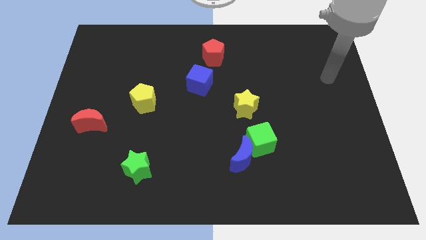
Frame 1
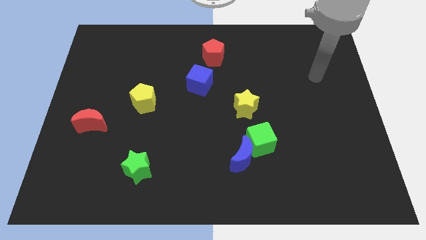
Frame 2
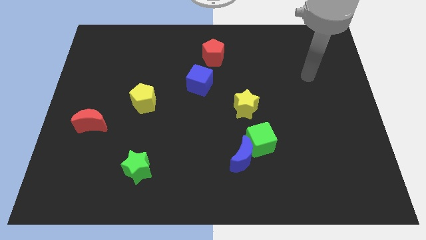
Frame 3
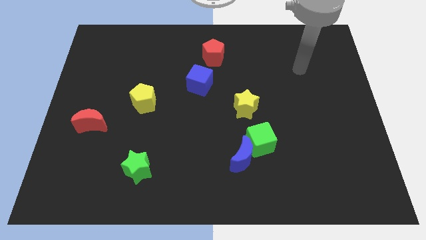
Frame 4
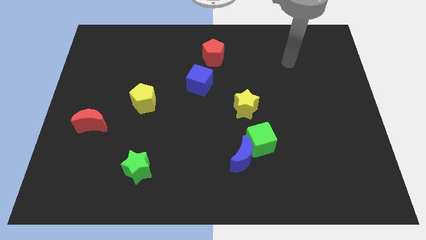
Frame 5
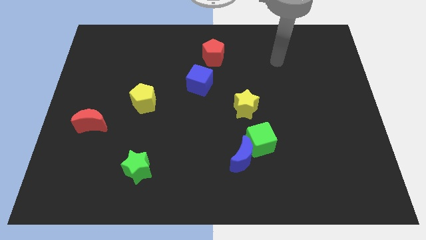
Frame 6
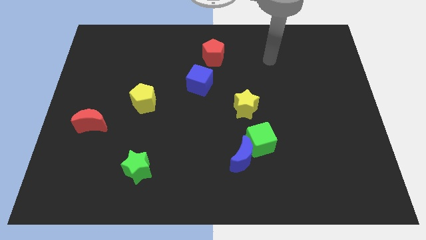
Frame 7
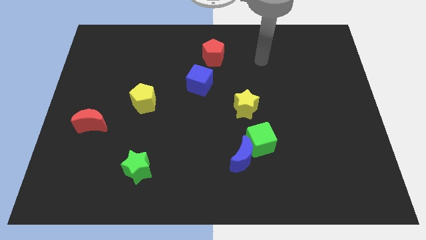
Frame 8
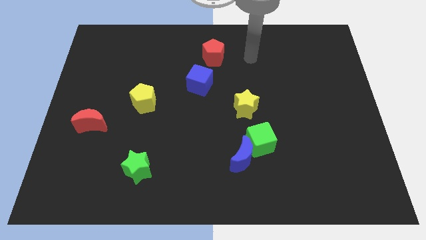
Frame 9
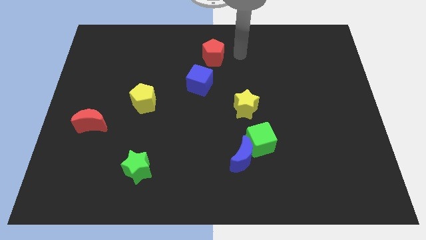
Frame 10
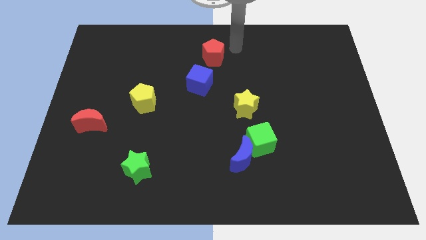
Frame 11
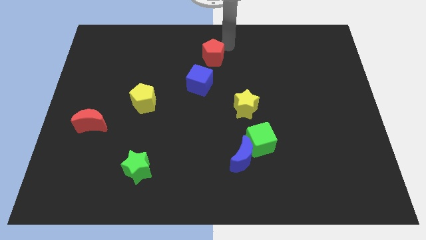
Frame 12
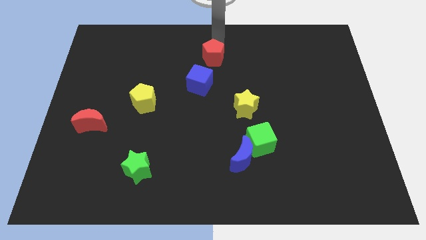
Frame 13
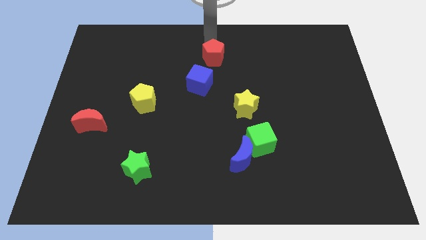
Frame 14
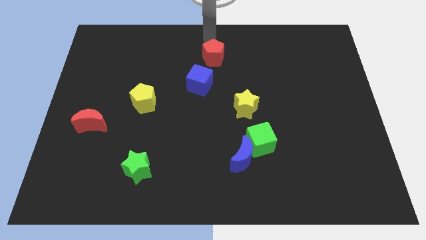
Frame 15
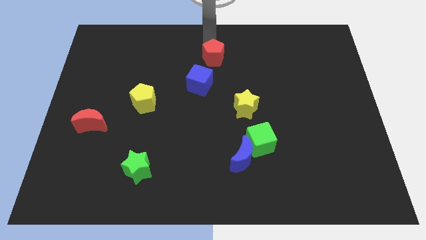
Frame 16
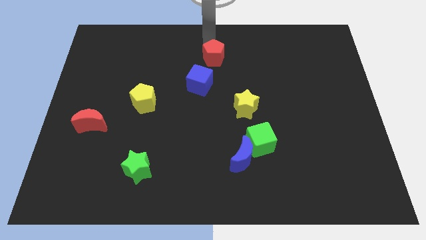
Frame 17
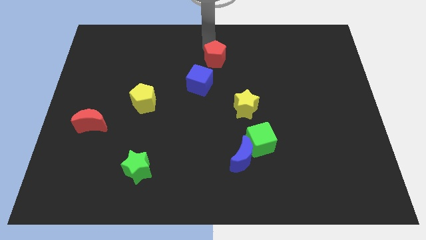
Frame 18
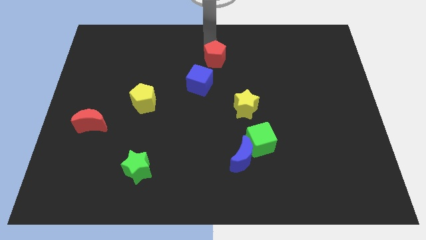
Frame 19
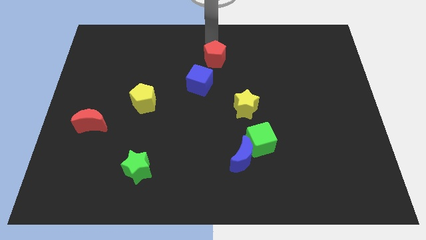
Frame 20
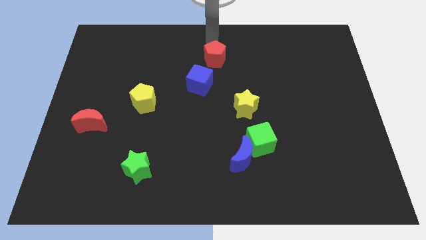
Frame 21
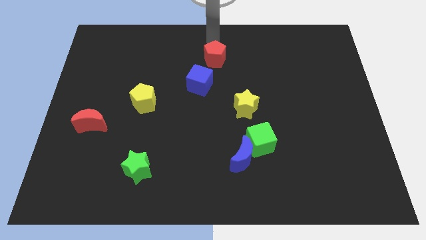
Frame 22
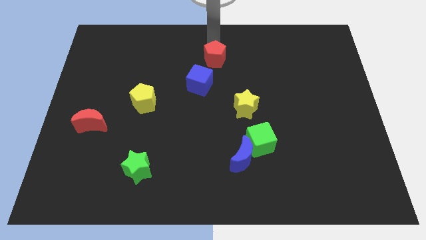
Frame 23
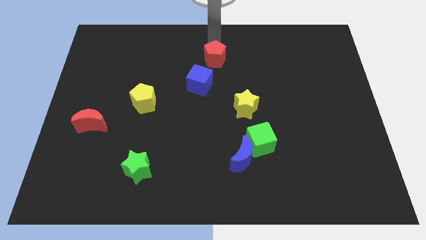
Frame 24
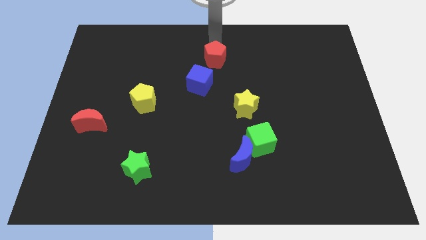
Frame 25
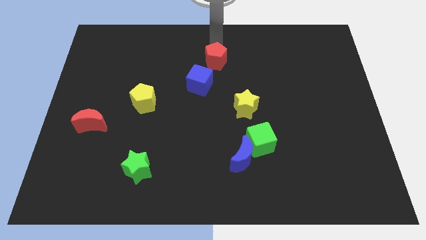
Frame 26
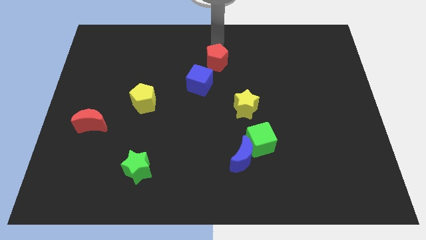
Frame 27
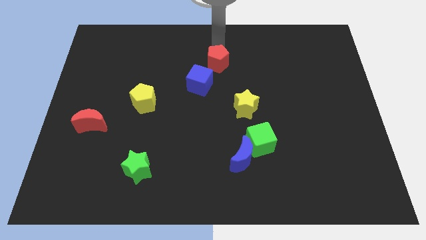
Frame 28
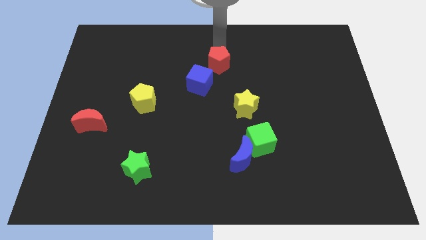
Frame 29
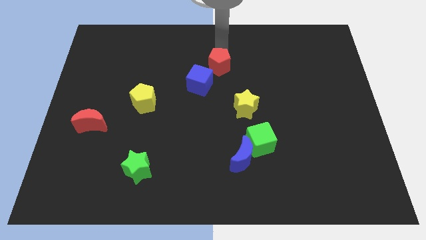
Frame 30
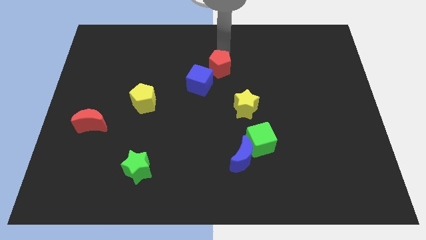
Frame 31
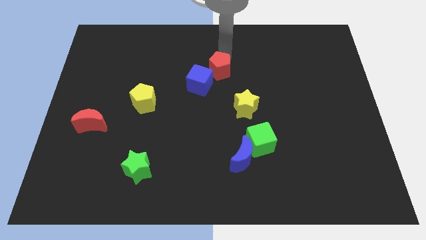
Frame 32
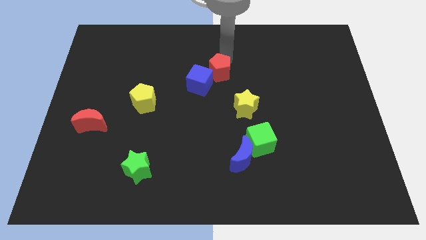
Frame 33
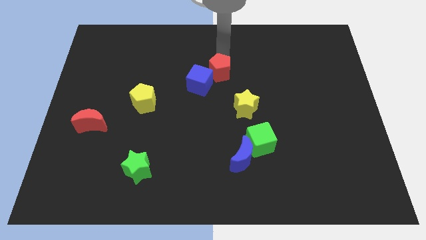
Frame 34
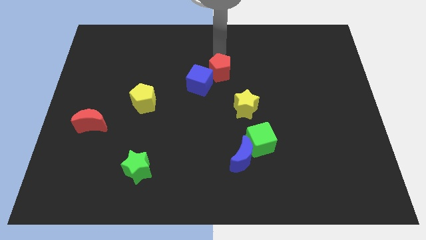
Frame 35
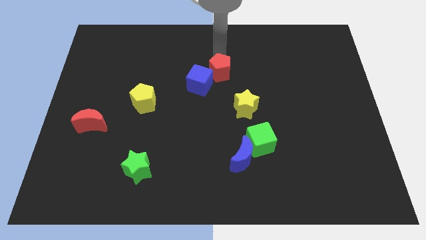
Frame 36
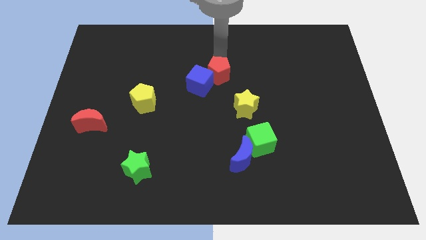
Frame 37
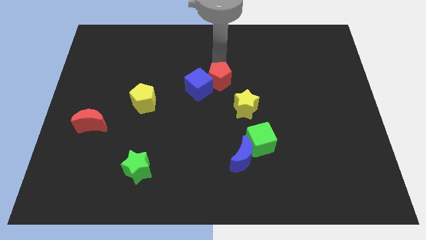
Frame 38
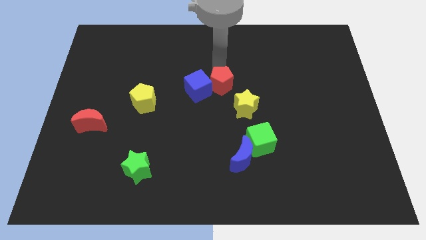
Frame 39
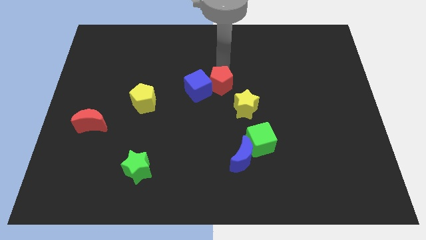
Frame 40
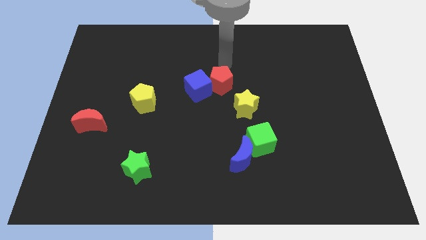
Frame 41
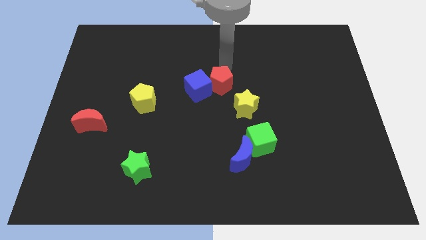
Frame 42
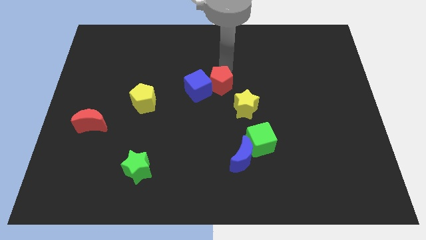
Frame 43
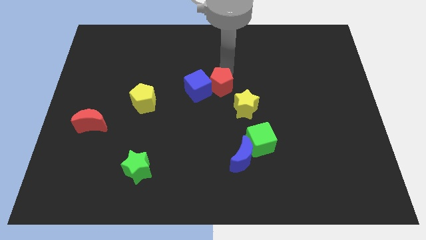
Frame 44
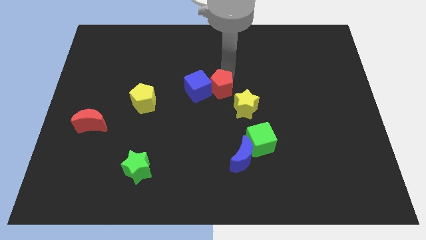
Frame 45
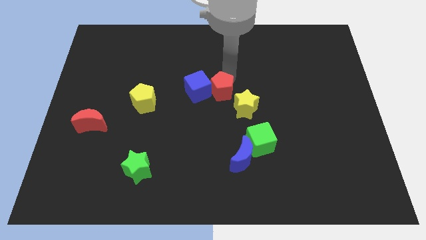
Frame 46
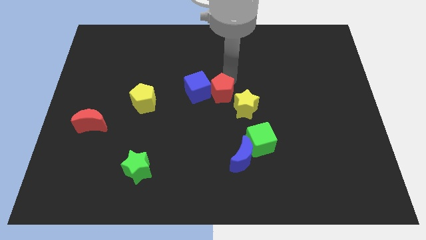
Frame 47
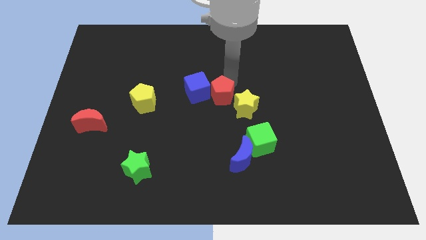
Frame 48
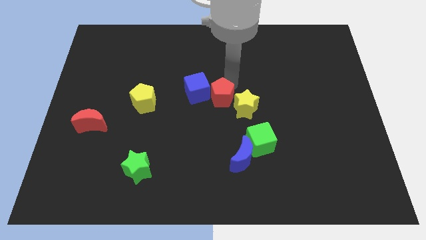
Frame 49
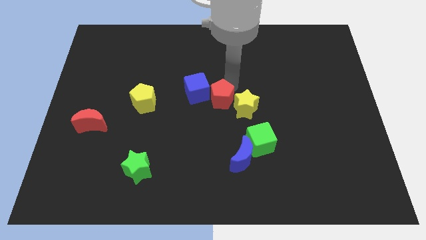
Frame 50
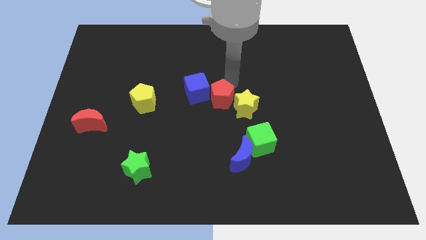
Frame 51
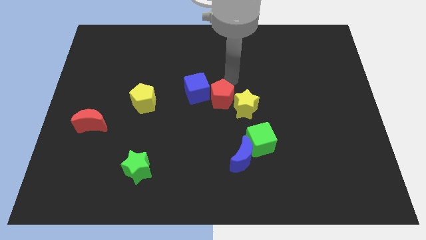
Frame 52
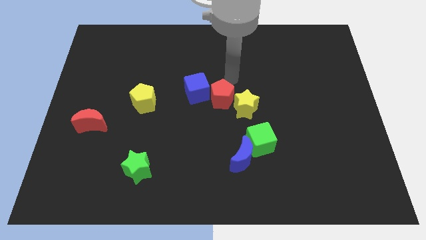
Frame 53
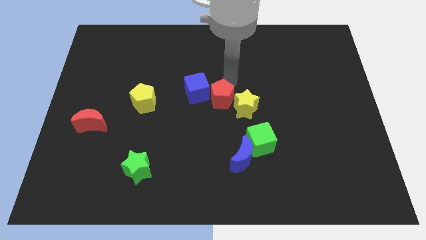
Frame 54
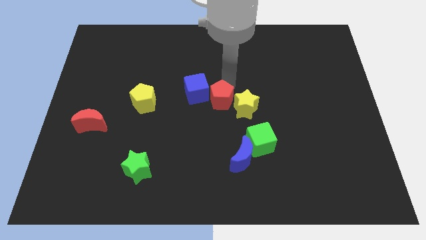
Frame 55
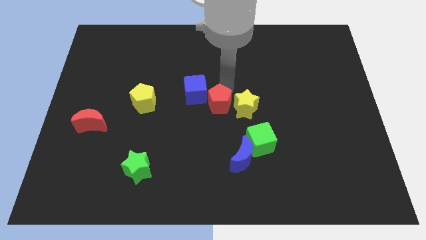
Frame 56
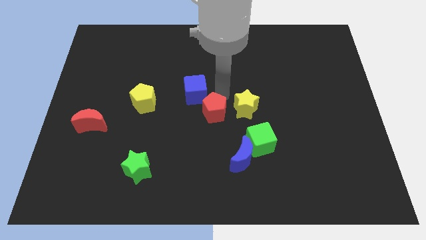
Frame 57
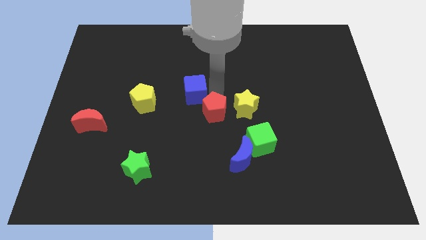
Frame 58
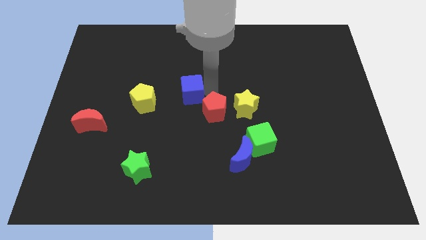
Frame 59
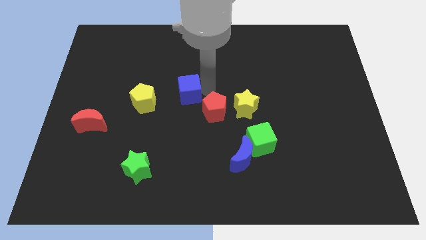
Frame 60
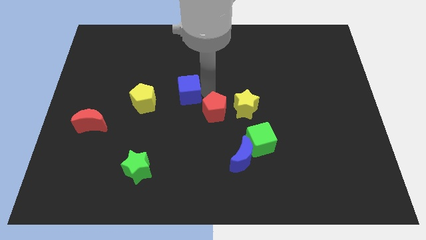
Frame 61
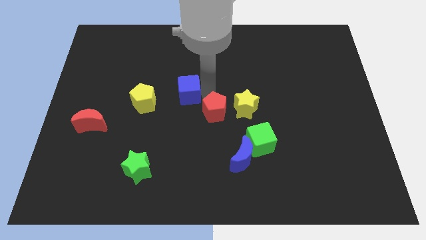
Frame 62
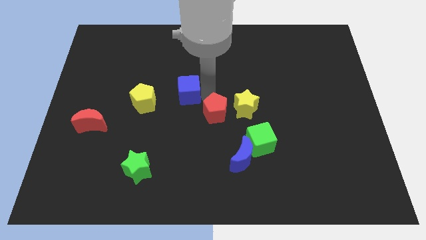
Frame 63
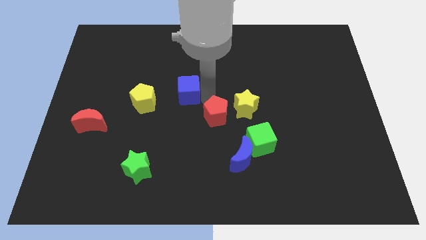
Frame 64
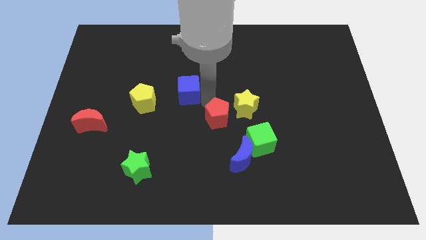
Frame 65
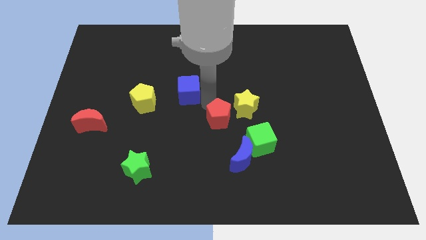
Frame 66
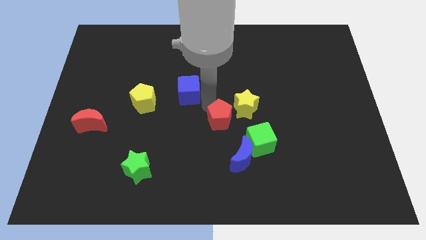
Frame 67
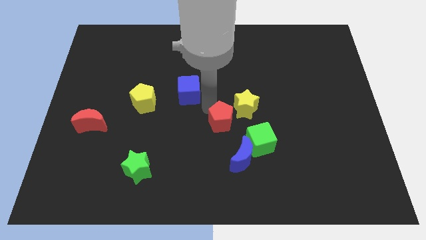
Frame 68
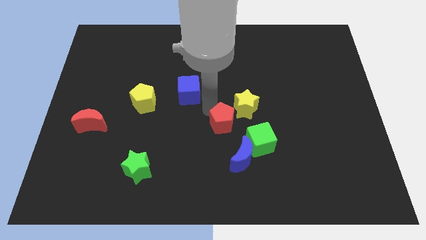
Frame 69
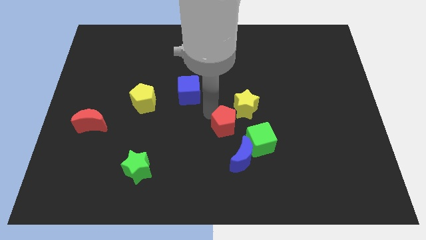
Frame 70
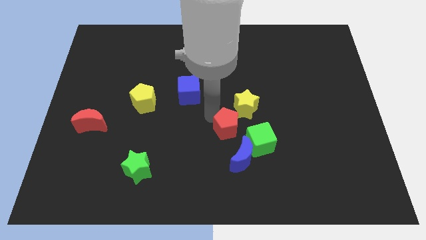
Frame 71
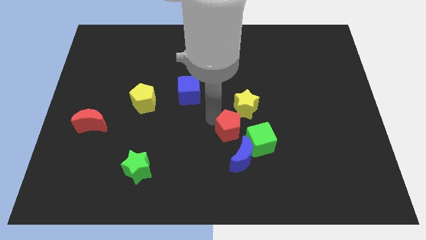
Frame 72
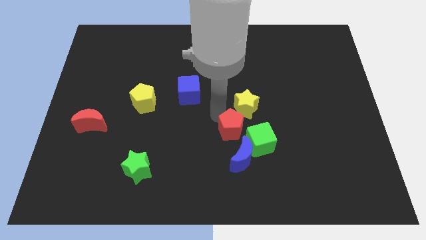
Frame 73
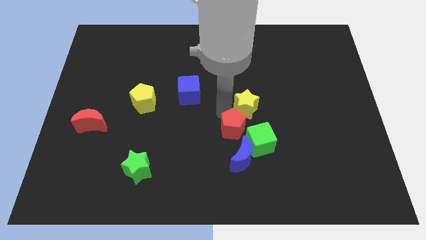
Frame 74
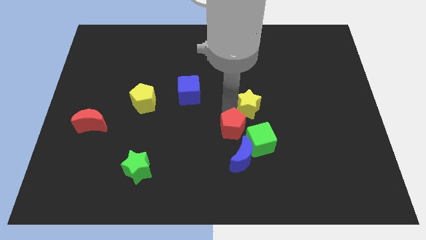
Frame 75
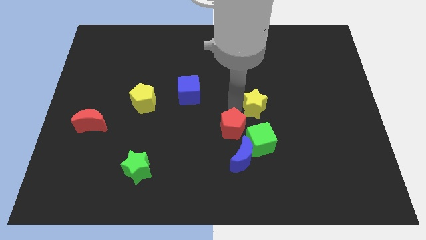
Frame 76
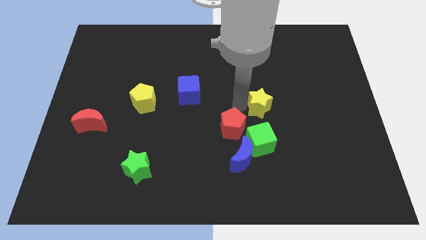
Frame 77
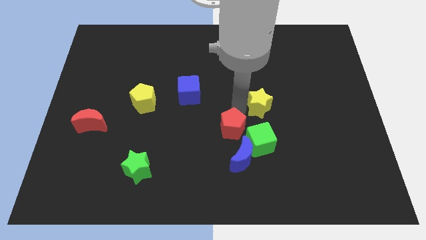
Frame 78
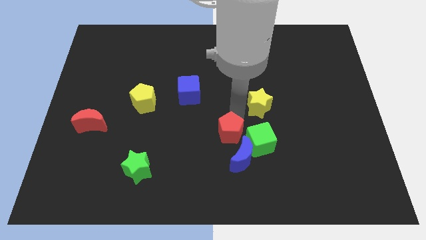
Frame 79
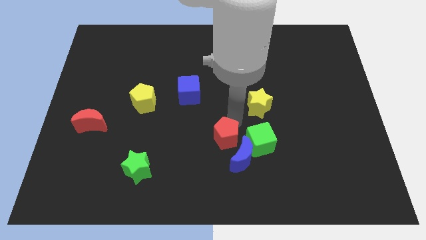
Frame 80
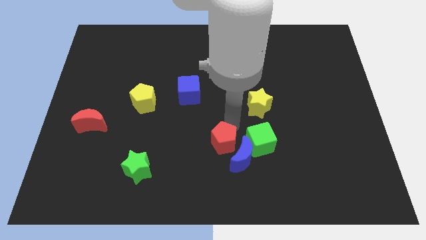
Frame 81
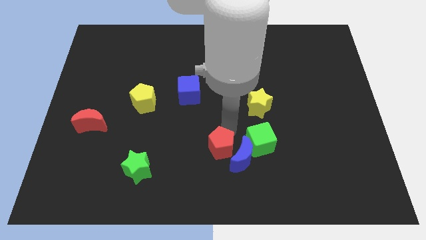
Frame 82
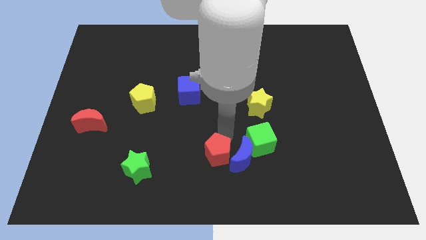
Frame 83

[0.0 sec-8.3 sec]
put the red pentagon to the bottom
